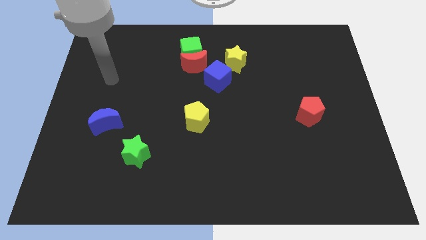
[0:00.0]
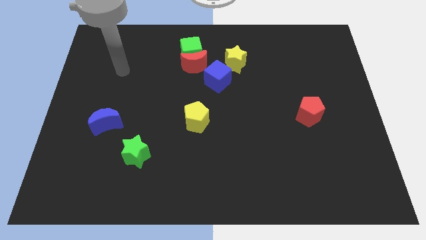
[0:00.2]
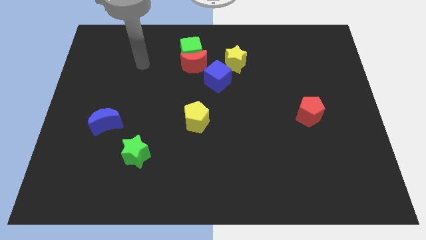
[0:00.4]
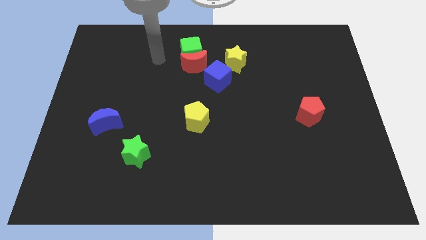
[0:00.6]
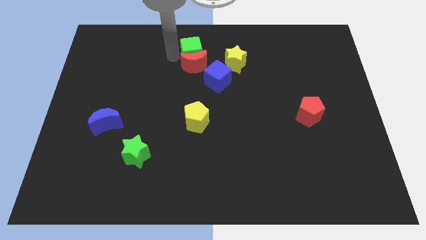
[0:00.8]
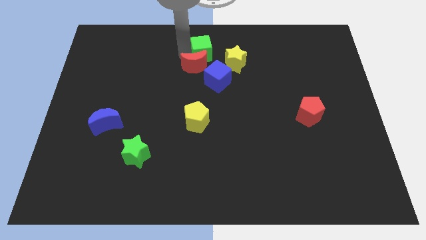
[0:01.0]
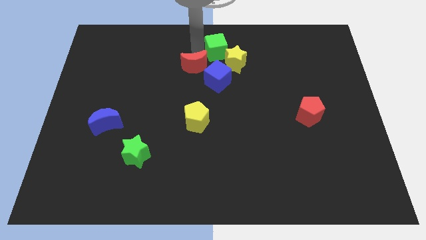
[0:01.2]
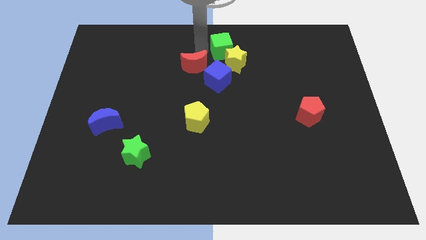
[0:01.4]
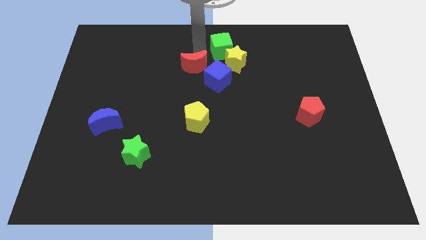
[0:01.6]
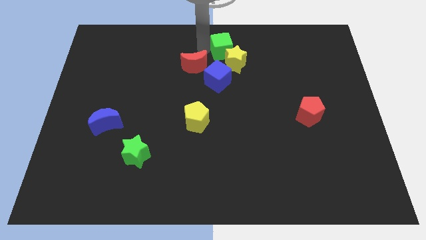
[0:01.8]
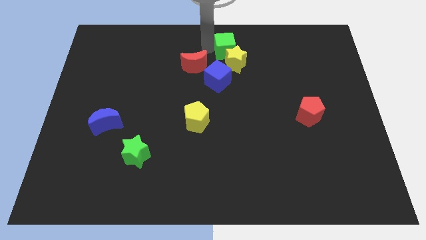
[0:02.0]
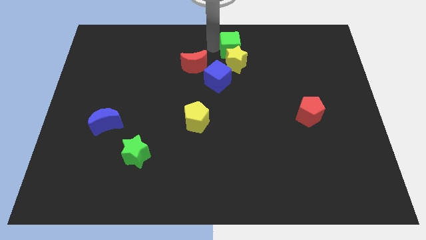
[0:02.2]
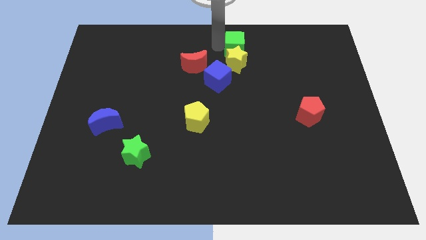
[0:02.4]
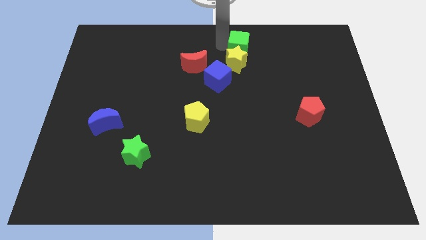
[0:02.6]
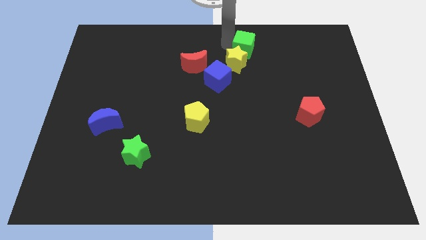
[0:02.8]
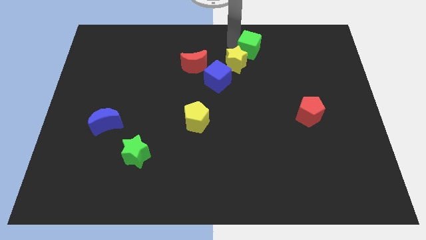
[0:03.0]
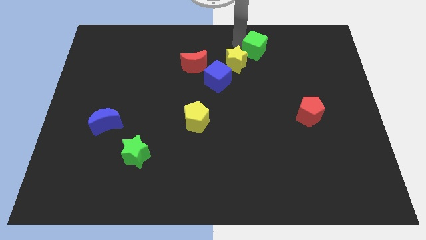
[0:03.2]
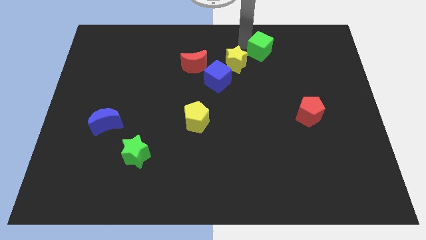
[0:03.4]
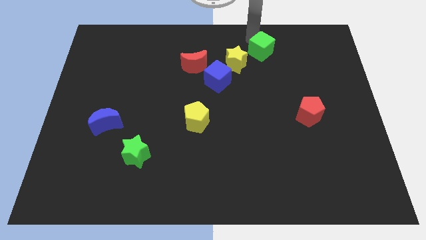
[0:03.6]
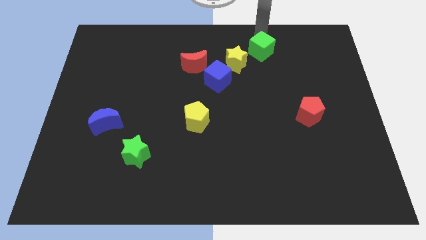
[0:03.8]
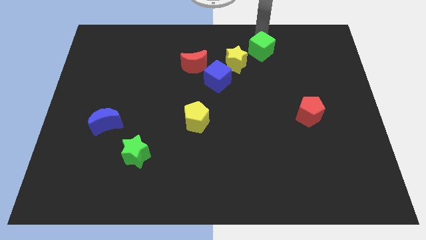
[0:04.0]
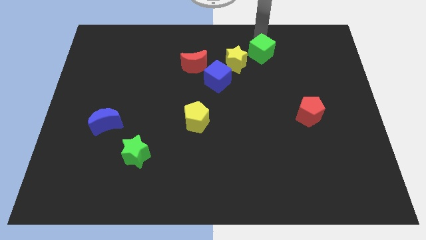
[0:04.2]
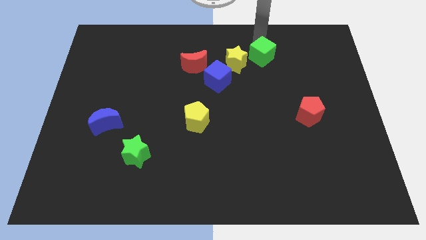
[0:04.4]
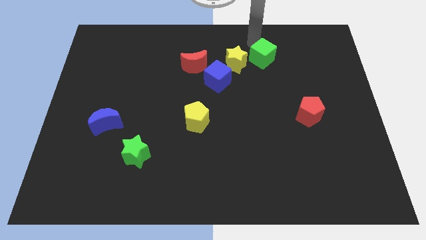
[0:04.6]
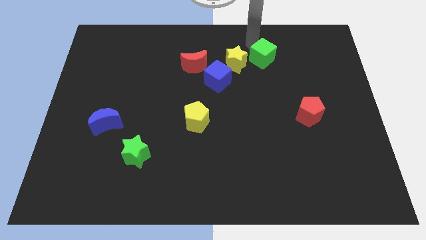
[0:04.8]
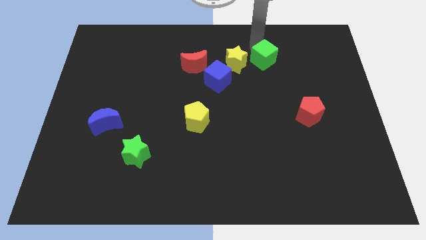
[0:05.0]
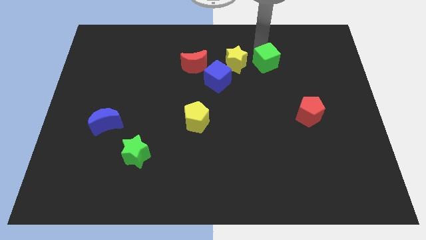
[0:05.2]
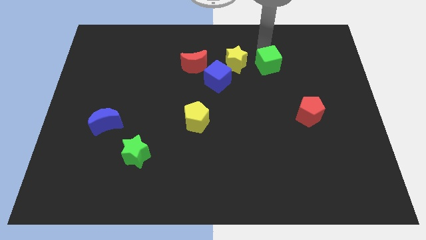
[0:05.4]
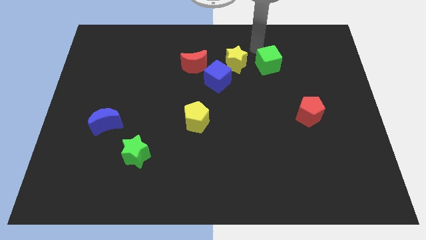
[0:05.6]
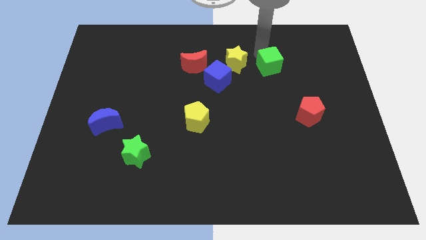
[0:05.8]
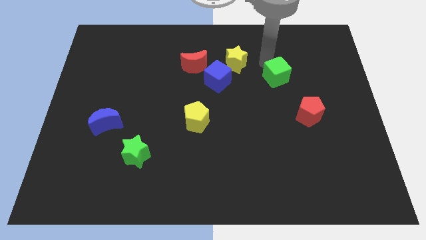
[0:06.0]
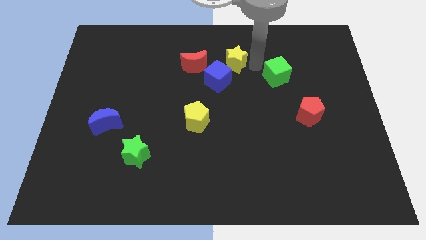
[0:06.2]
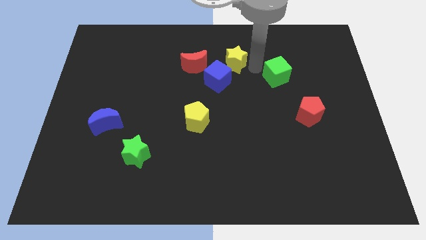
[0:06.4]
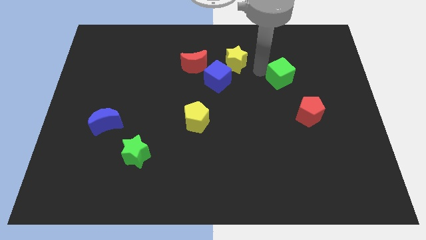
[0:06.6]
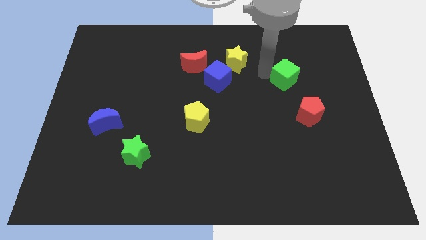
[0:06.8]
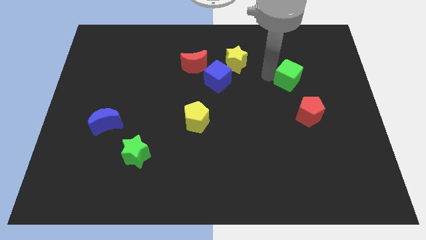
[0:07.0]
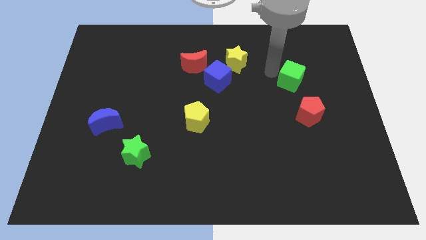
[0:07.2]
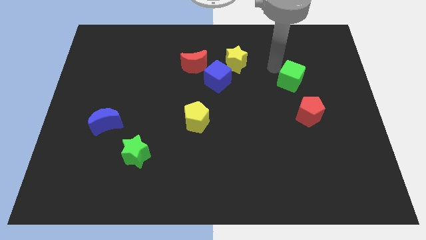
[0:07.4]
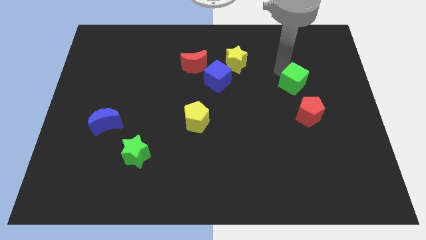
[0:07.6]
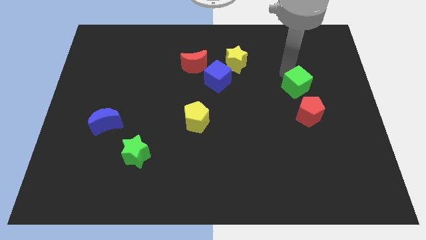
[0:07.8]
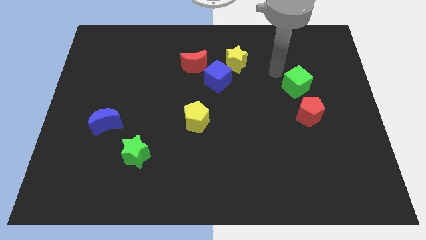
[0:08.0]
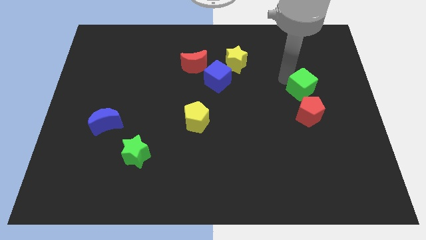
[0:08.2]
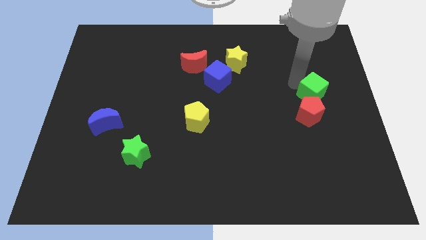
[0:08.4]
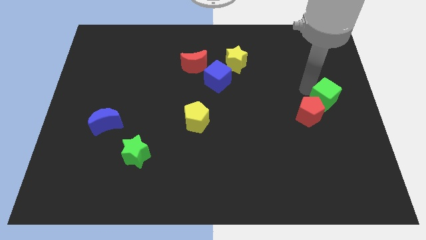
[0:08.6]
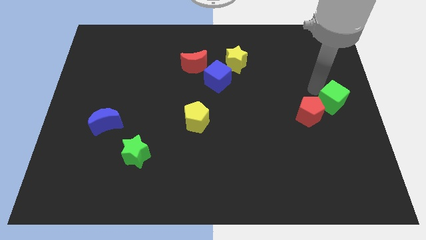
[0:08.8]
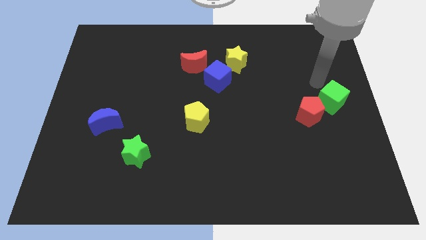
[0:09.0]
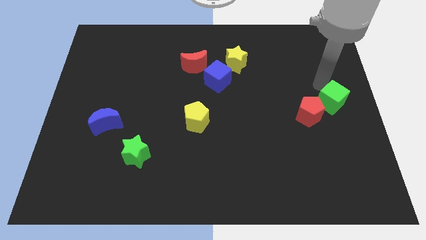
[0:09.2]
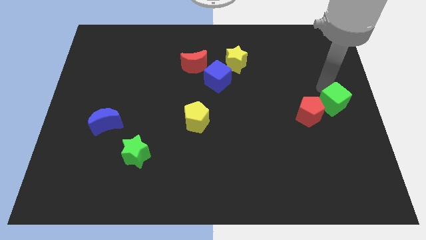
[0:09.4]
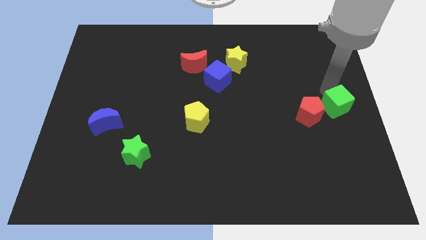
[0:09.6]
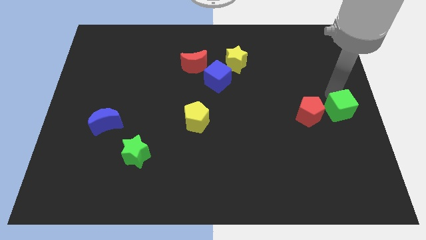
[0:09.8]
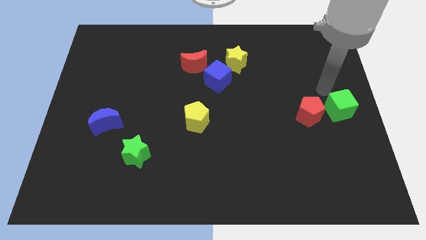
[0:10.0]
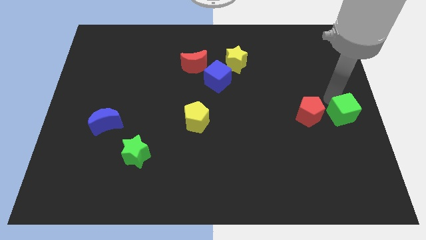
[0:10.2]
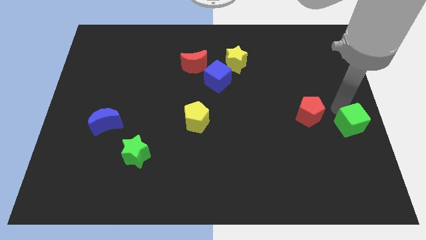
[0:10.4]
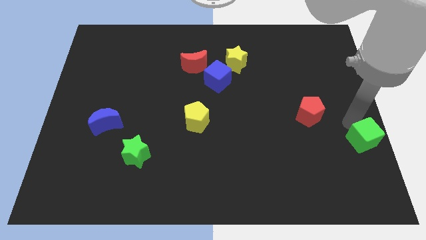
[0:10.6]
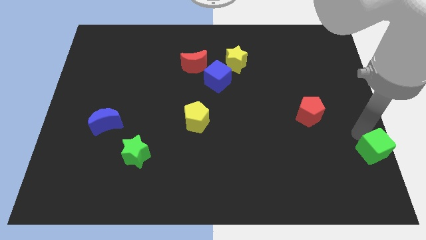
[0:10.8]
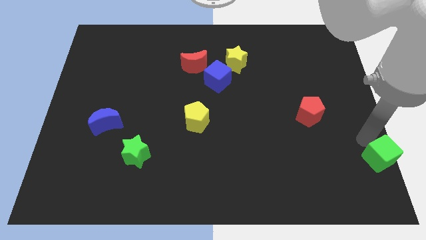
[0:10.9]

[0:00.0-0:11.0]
move the green cube to the bottom right corner

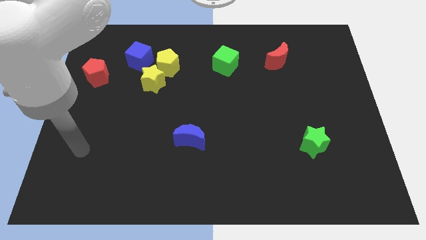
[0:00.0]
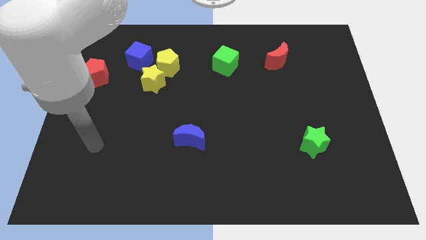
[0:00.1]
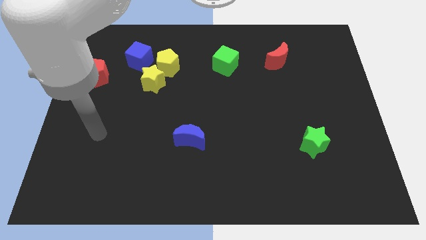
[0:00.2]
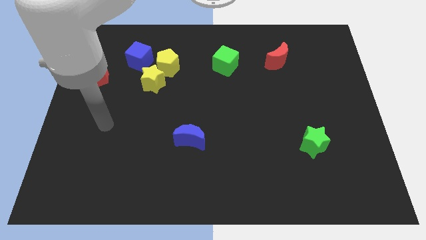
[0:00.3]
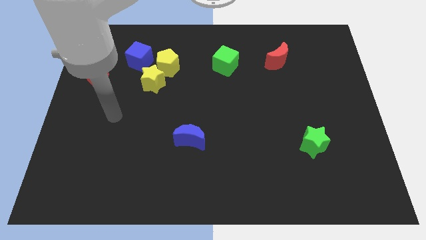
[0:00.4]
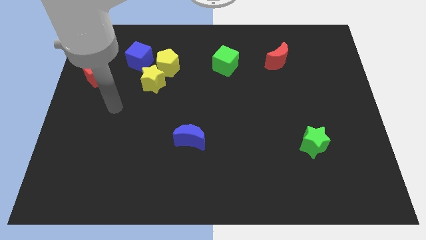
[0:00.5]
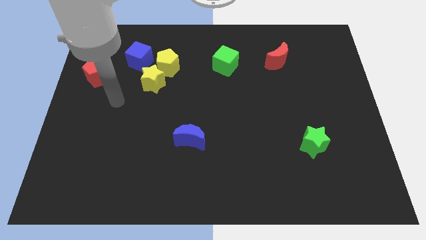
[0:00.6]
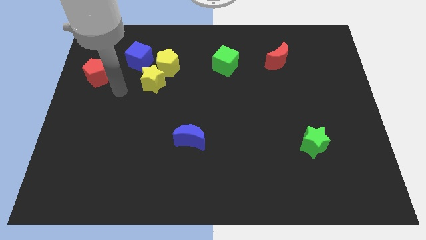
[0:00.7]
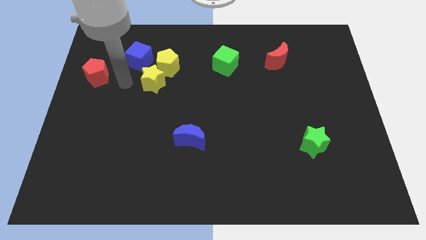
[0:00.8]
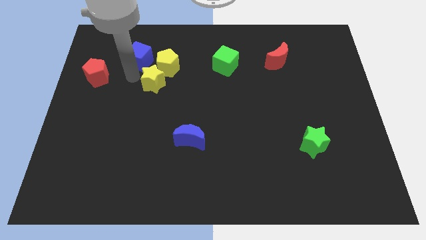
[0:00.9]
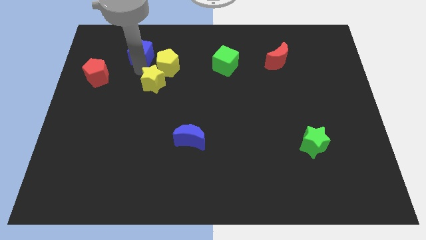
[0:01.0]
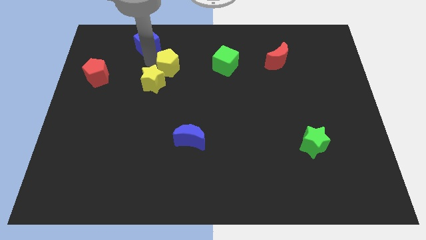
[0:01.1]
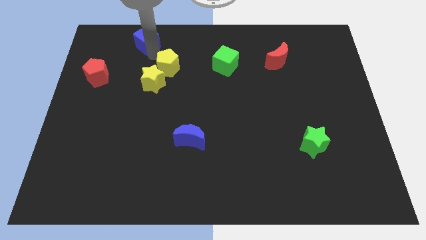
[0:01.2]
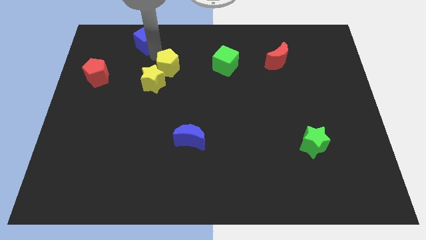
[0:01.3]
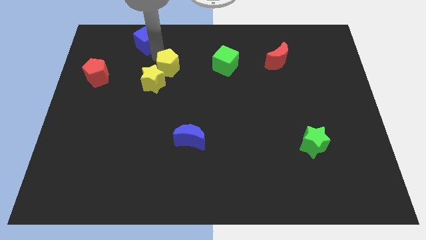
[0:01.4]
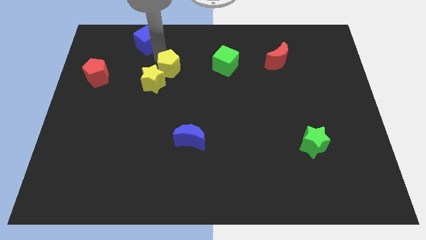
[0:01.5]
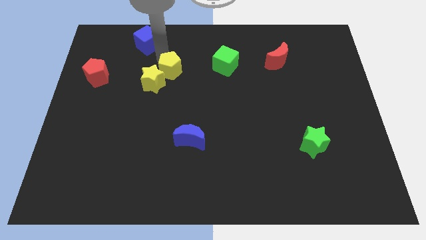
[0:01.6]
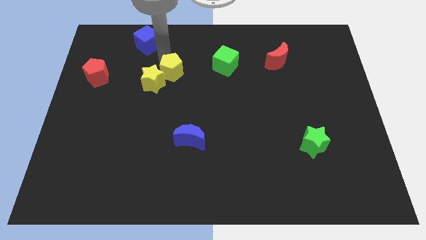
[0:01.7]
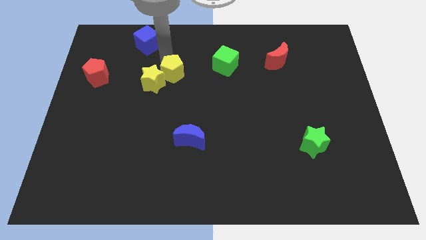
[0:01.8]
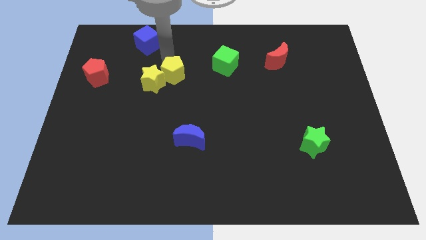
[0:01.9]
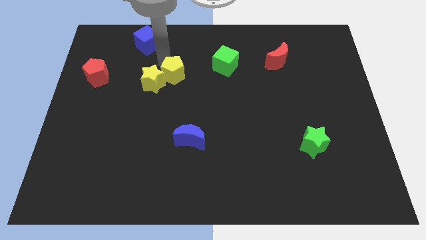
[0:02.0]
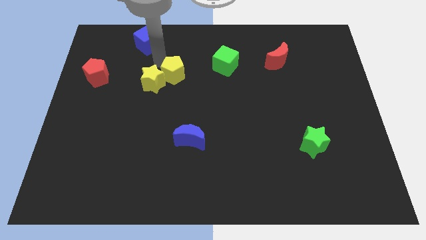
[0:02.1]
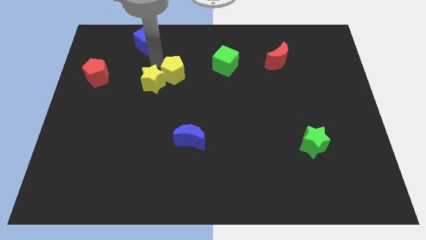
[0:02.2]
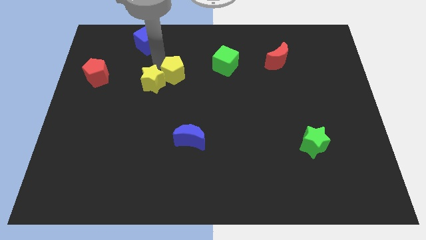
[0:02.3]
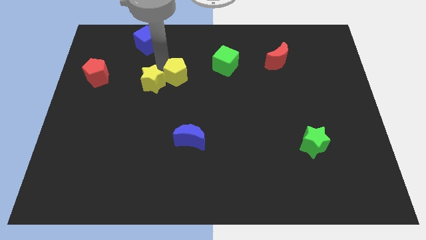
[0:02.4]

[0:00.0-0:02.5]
move the yellow pentagon to the center of the board

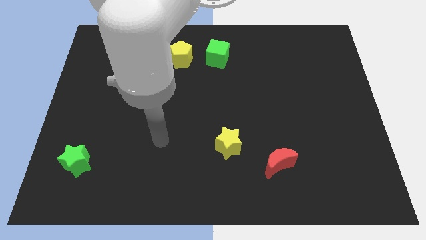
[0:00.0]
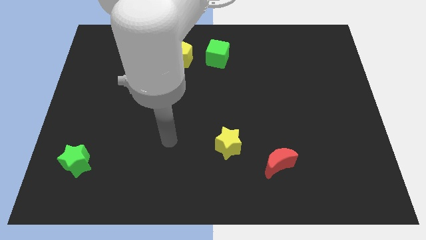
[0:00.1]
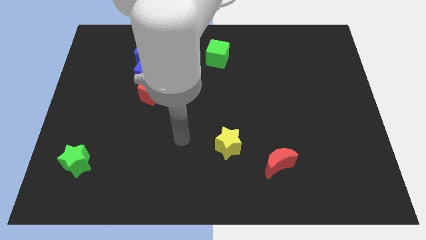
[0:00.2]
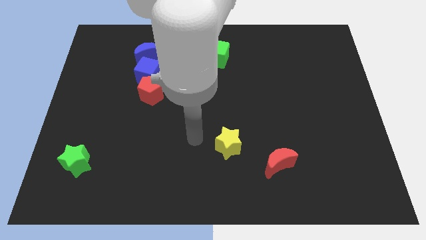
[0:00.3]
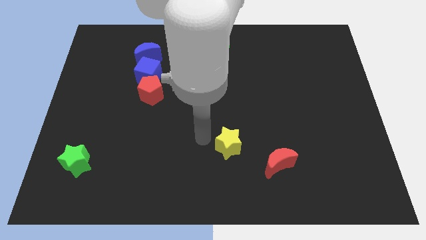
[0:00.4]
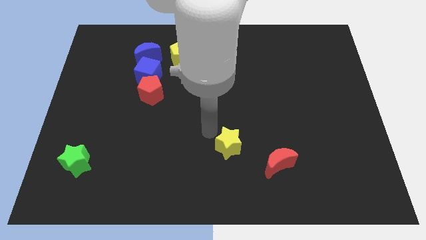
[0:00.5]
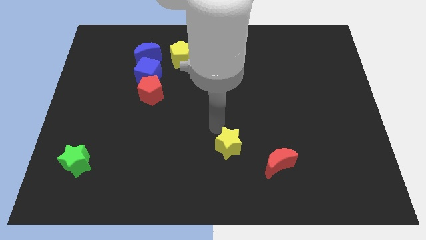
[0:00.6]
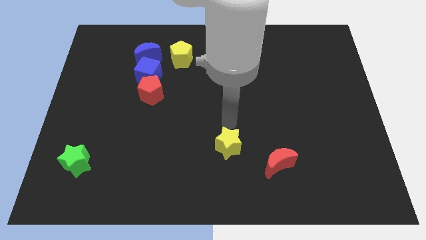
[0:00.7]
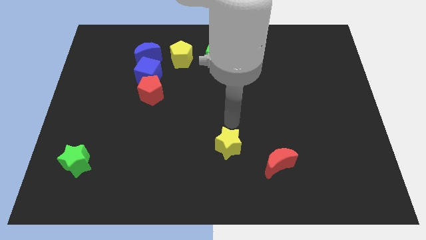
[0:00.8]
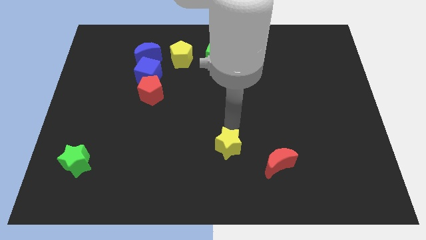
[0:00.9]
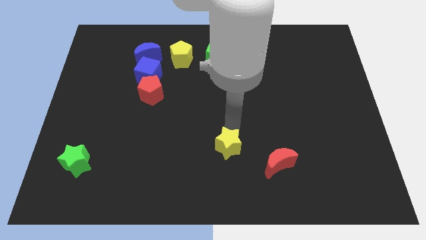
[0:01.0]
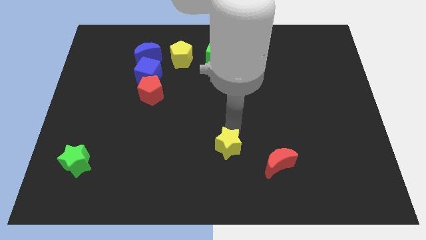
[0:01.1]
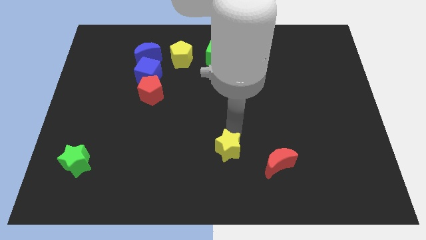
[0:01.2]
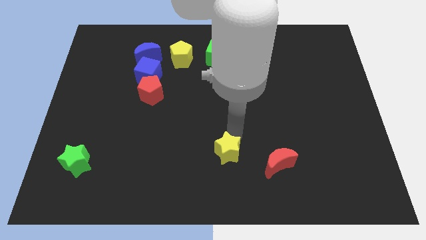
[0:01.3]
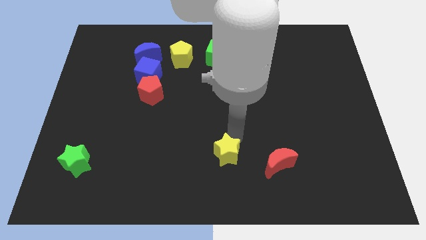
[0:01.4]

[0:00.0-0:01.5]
move the yellow star to the bottom side
